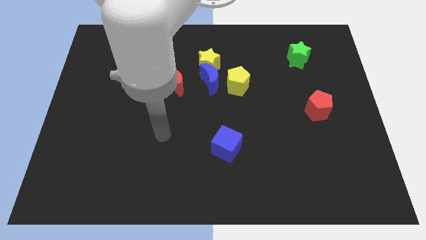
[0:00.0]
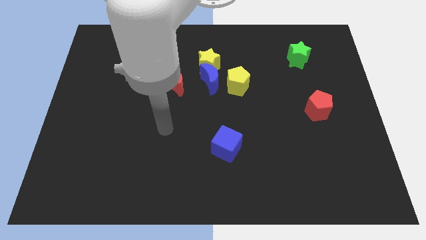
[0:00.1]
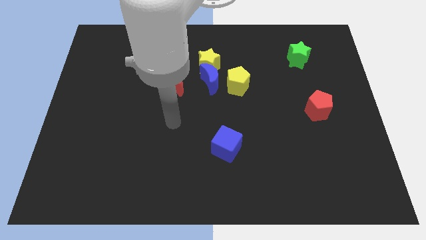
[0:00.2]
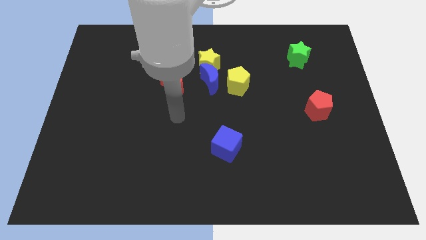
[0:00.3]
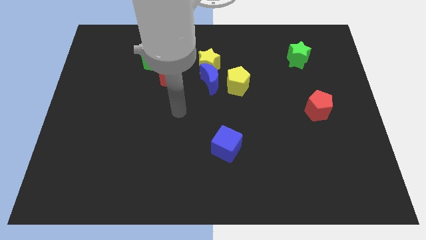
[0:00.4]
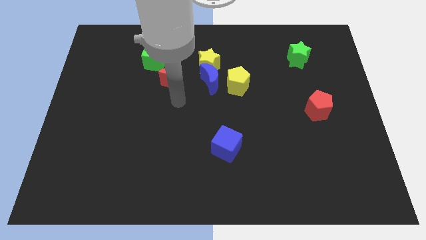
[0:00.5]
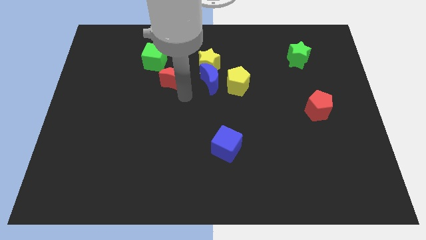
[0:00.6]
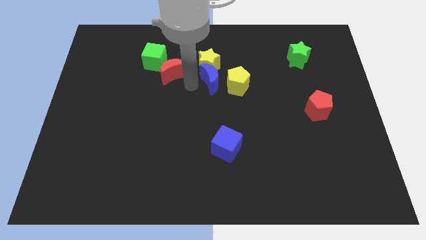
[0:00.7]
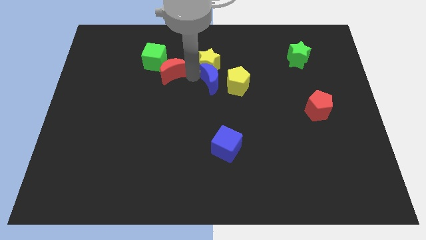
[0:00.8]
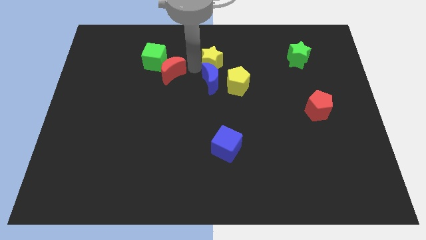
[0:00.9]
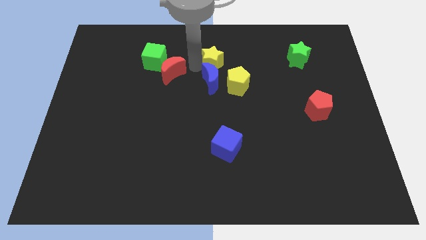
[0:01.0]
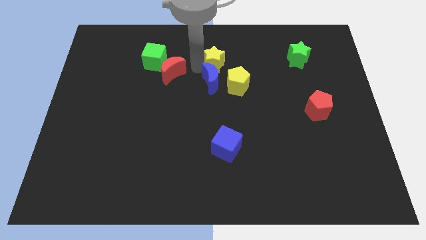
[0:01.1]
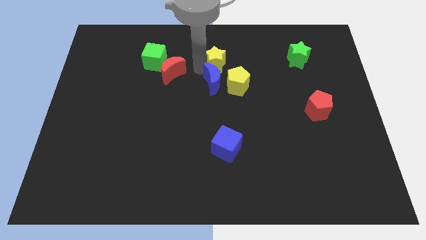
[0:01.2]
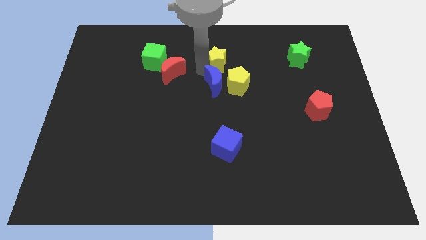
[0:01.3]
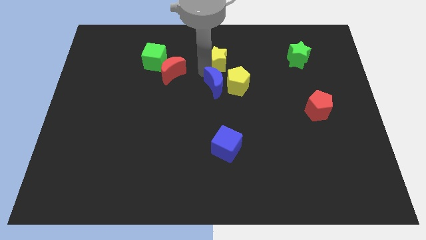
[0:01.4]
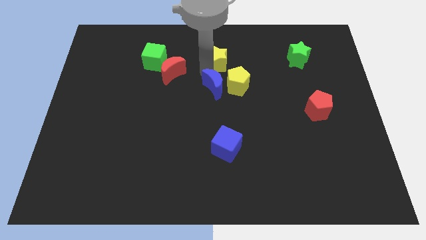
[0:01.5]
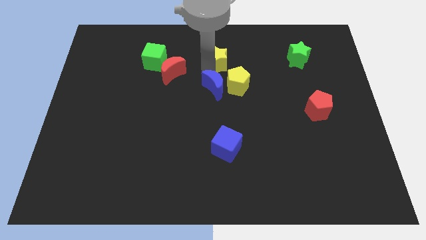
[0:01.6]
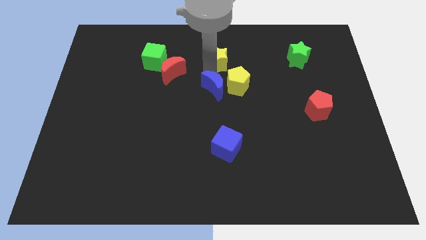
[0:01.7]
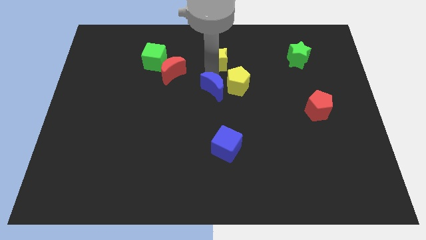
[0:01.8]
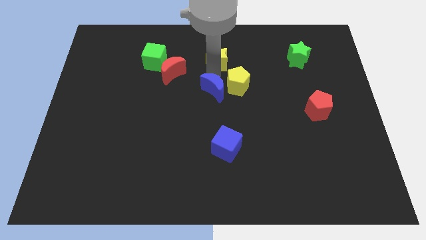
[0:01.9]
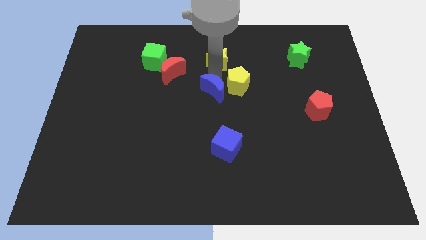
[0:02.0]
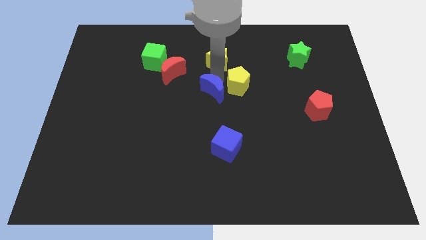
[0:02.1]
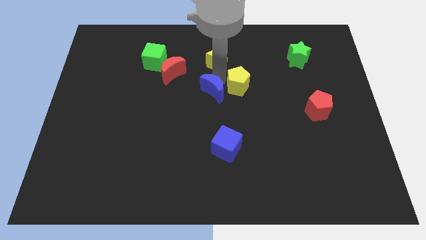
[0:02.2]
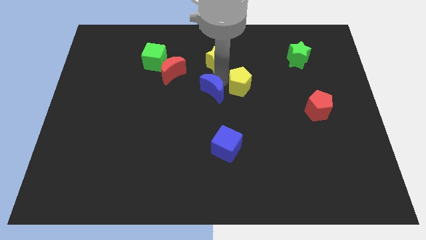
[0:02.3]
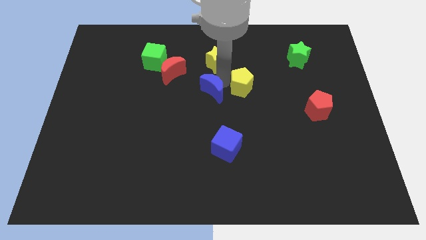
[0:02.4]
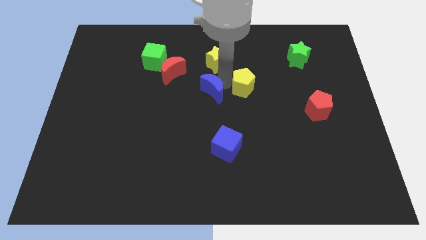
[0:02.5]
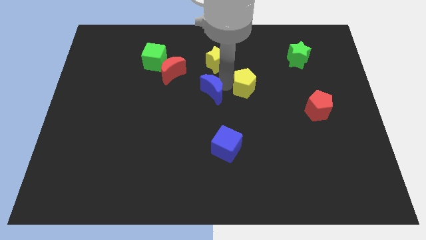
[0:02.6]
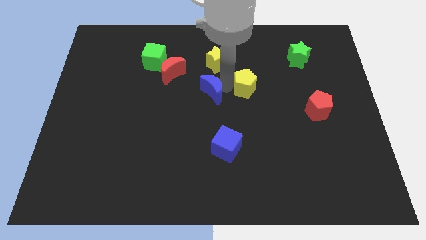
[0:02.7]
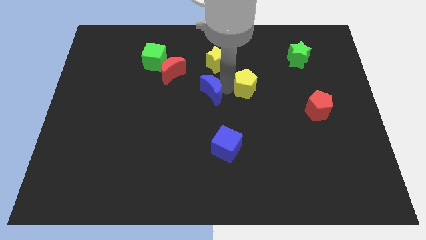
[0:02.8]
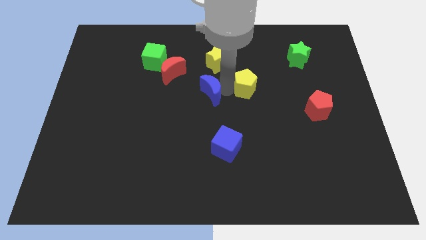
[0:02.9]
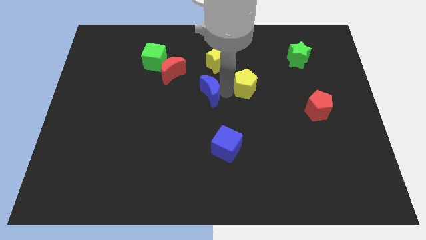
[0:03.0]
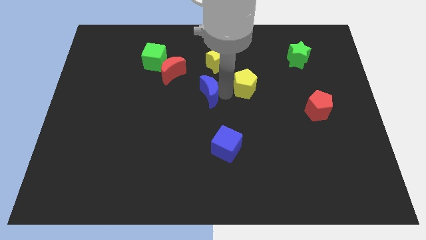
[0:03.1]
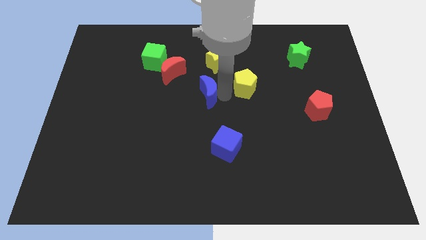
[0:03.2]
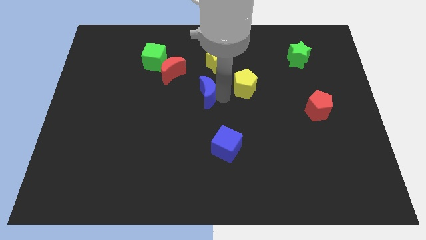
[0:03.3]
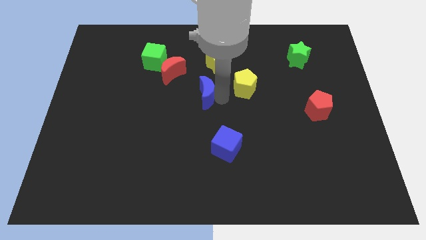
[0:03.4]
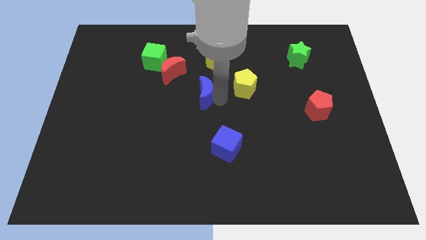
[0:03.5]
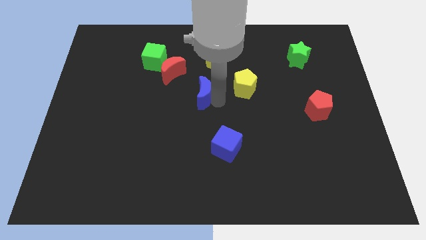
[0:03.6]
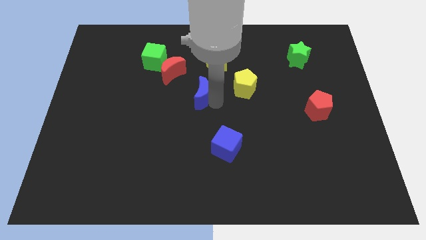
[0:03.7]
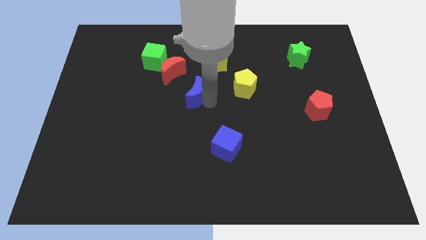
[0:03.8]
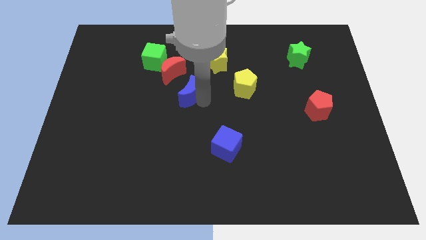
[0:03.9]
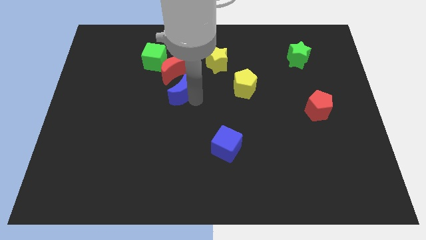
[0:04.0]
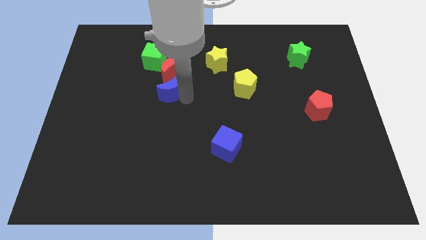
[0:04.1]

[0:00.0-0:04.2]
separate the blue moon from the group of blocks

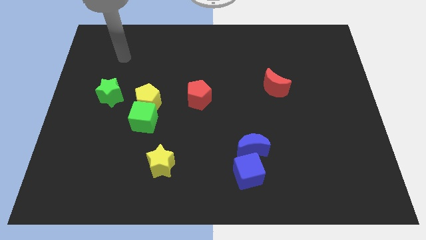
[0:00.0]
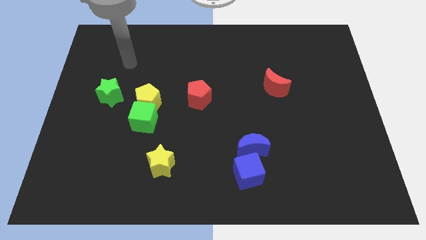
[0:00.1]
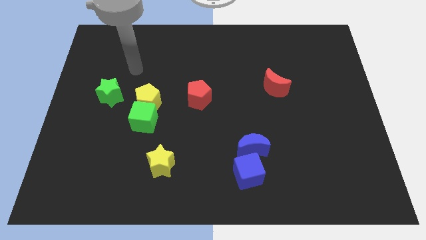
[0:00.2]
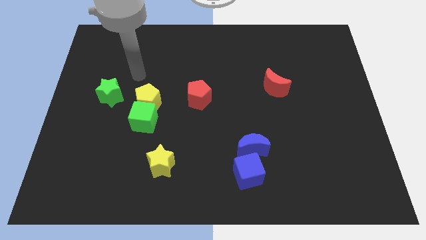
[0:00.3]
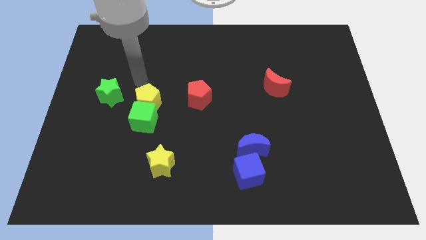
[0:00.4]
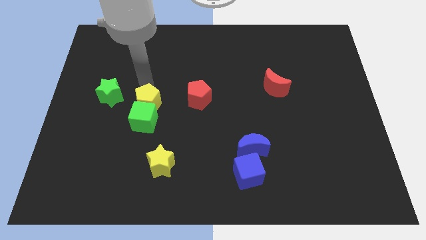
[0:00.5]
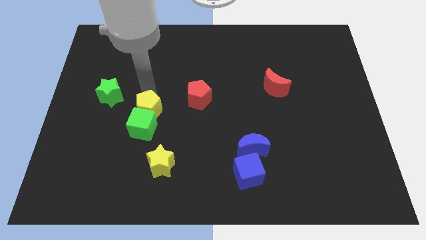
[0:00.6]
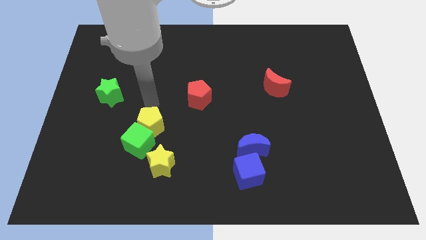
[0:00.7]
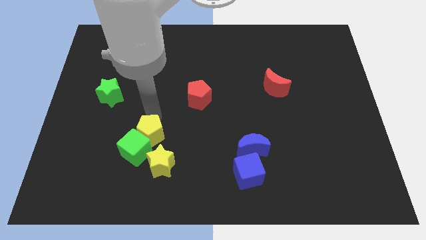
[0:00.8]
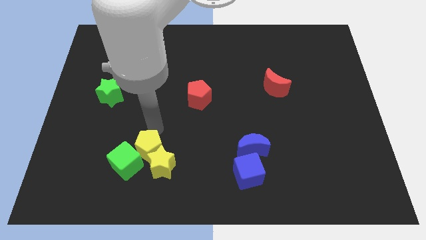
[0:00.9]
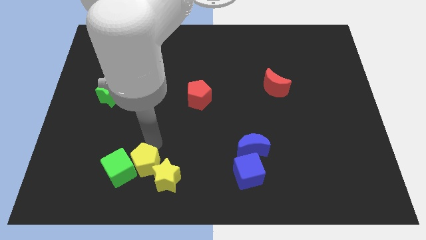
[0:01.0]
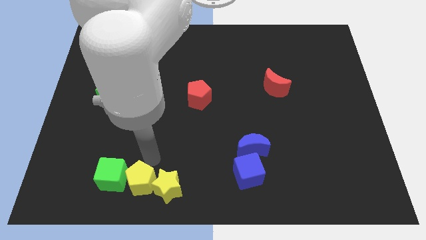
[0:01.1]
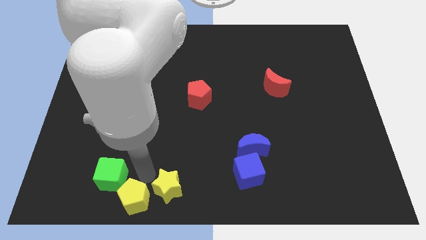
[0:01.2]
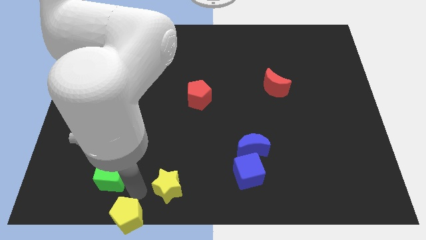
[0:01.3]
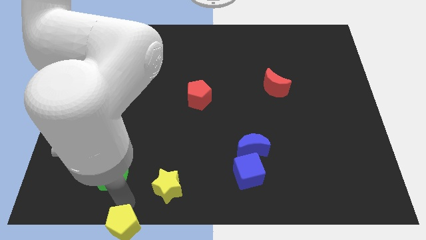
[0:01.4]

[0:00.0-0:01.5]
pull the green cube apart from the yellow pentagon

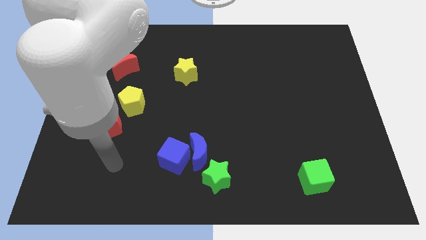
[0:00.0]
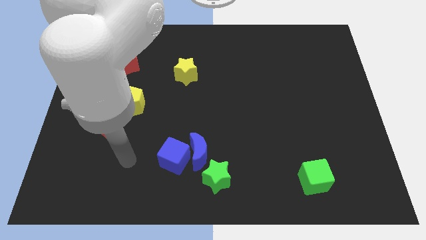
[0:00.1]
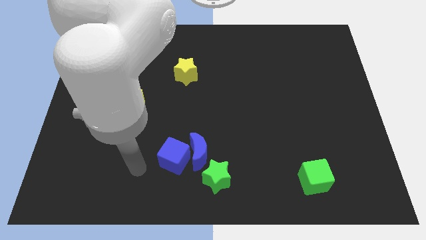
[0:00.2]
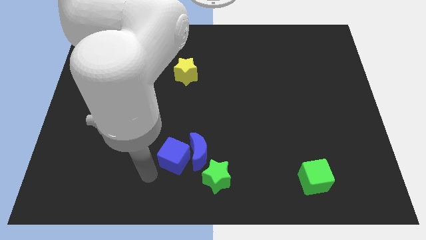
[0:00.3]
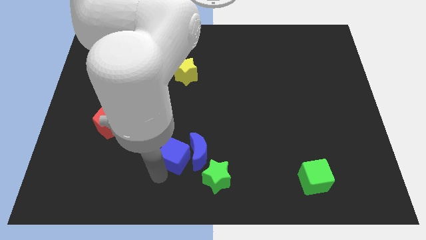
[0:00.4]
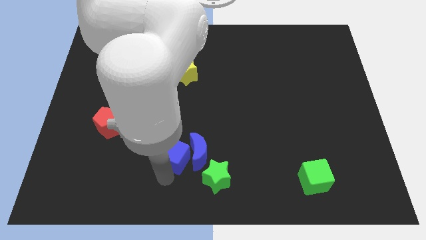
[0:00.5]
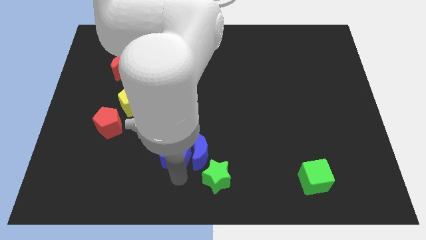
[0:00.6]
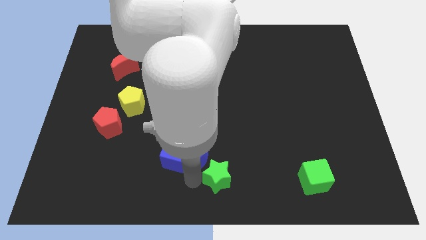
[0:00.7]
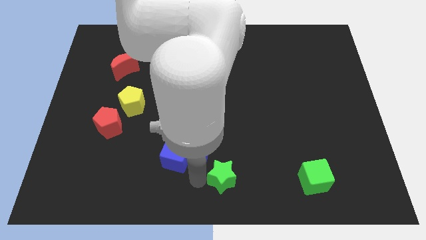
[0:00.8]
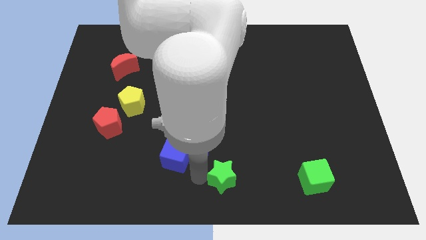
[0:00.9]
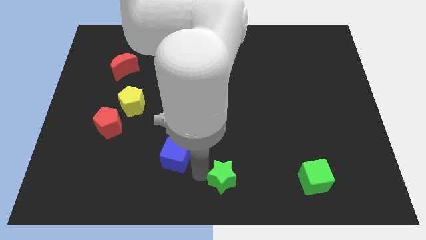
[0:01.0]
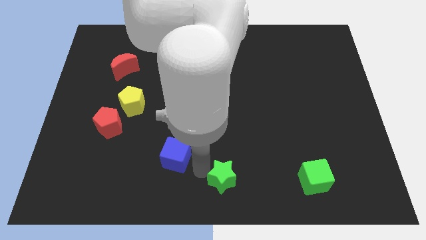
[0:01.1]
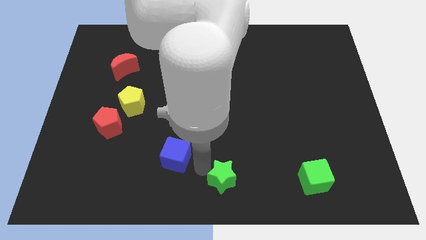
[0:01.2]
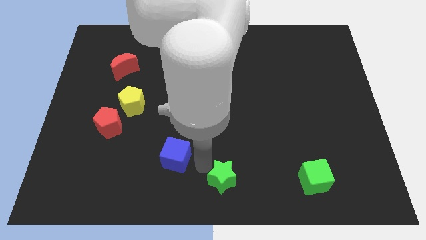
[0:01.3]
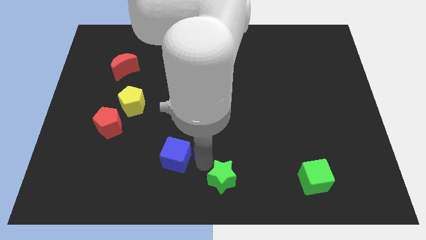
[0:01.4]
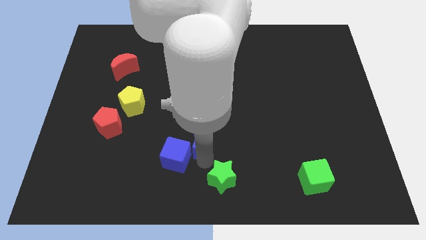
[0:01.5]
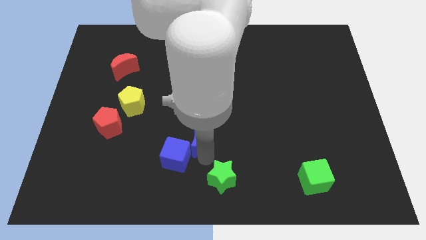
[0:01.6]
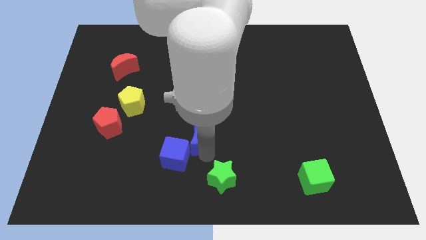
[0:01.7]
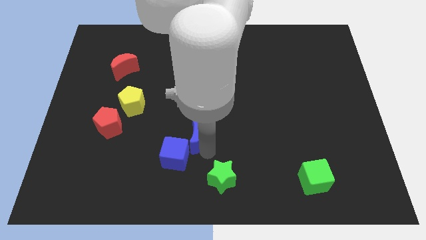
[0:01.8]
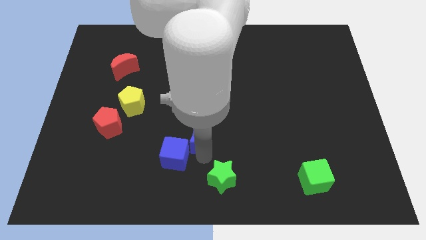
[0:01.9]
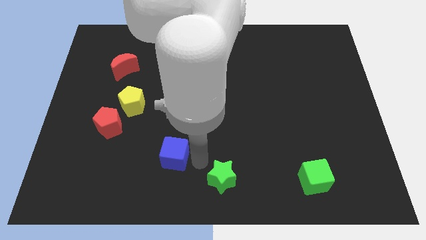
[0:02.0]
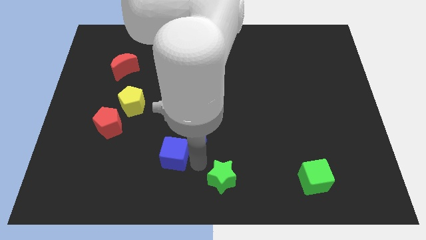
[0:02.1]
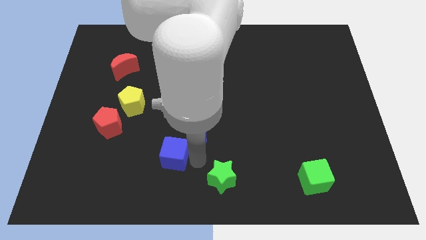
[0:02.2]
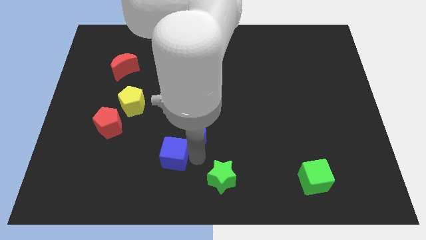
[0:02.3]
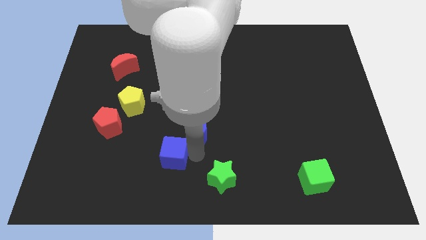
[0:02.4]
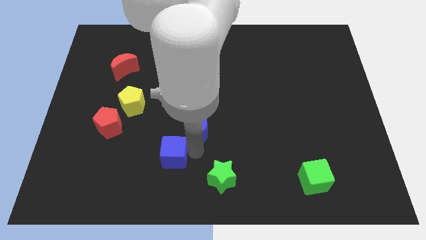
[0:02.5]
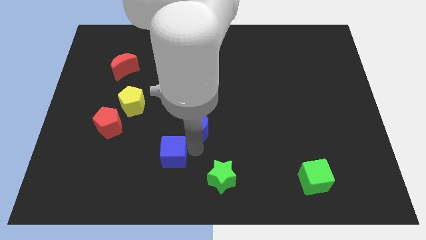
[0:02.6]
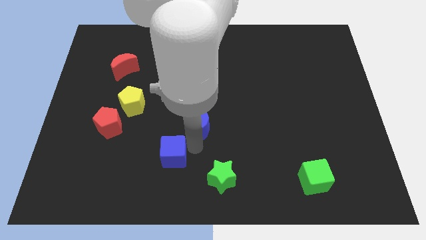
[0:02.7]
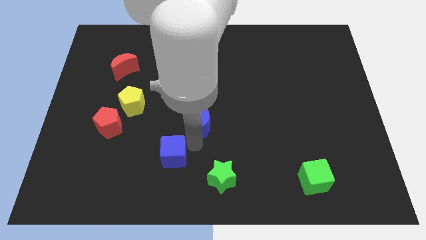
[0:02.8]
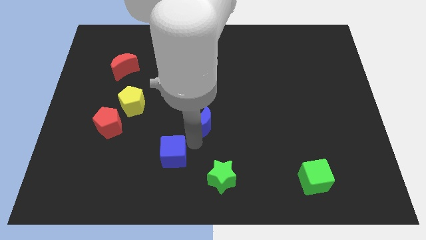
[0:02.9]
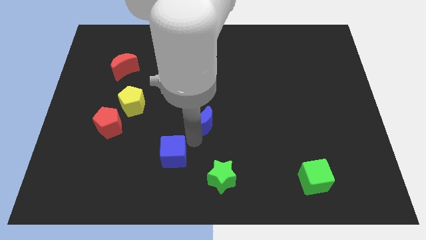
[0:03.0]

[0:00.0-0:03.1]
move the blue moon away from the blue cube and green star

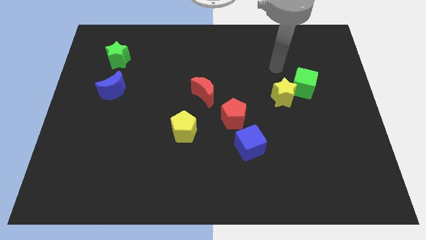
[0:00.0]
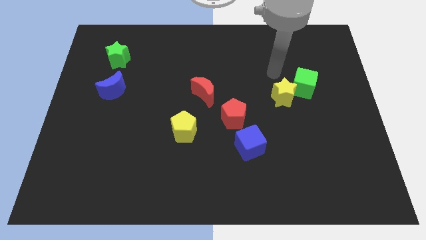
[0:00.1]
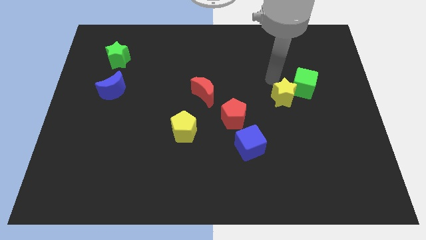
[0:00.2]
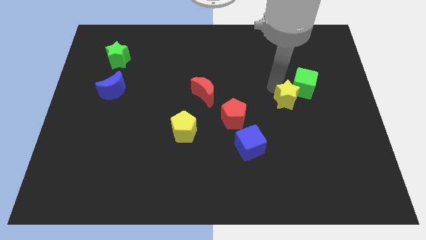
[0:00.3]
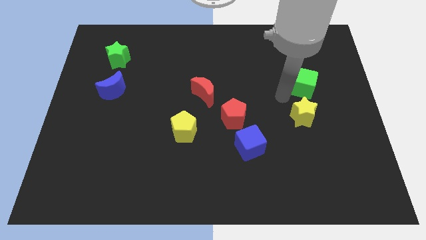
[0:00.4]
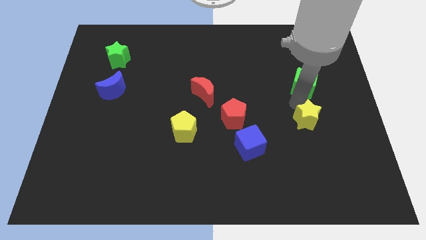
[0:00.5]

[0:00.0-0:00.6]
pull the green cube apart from the yellow star
